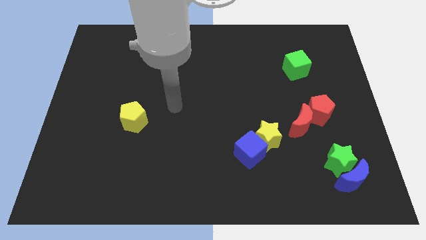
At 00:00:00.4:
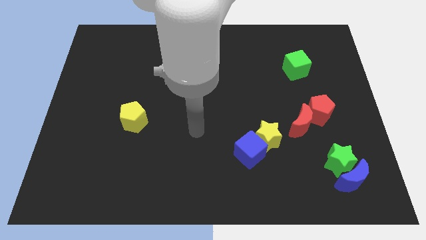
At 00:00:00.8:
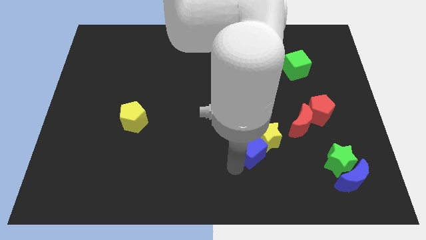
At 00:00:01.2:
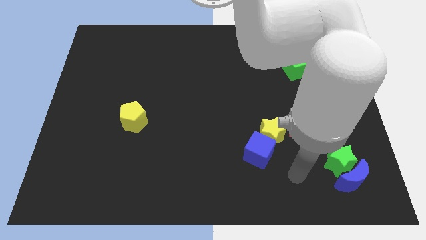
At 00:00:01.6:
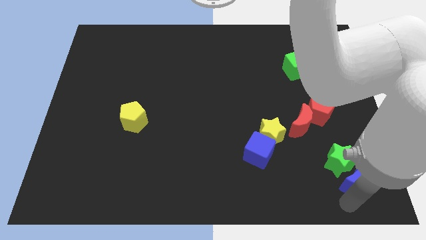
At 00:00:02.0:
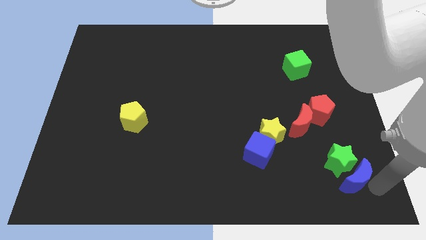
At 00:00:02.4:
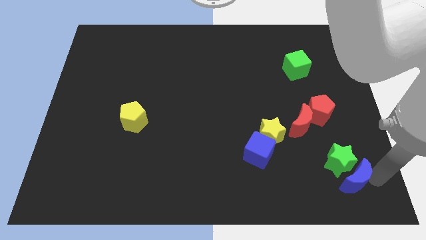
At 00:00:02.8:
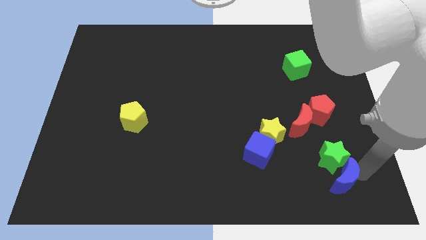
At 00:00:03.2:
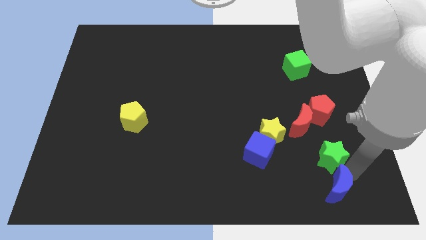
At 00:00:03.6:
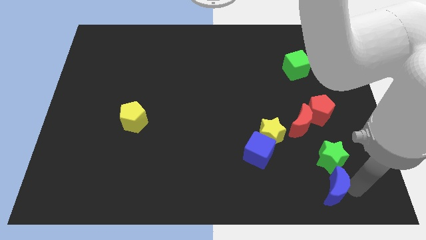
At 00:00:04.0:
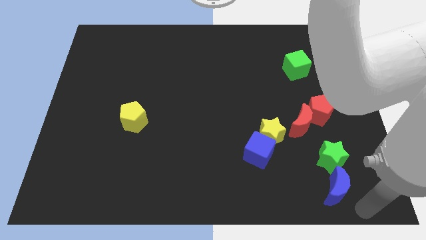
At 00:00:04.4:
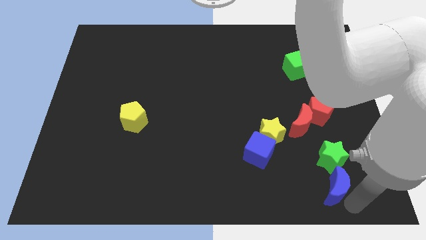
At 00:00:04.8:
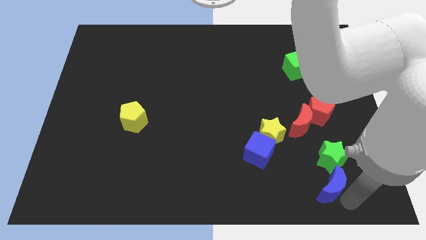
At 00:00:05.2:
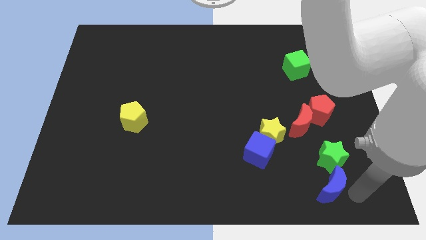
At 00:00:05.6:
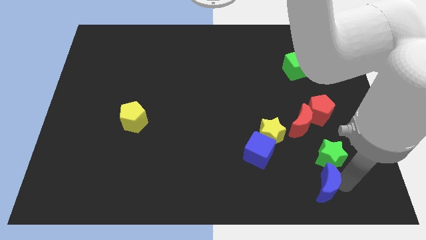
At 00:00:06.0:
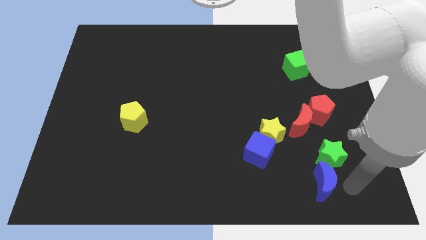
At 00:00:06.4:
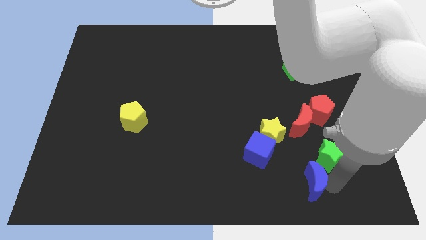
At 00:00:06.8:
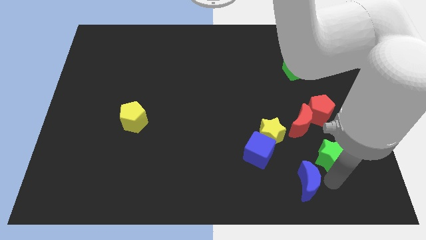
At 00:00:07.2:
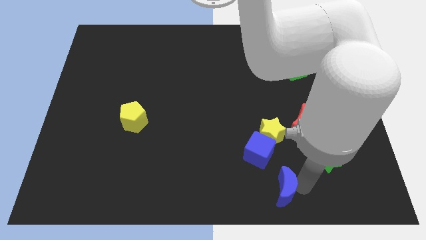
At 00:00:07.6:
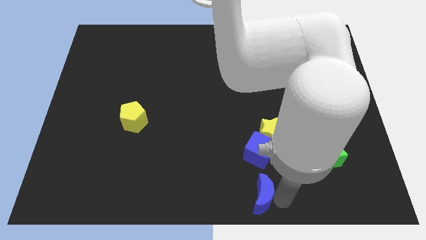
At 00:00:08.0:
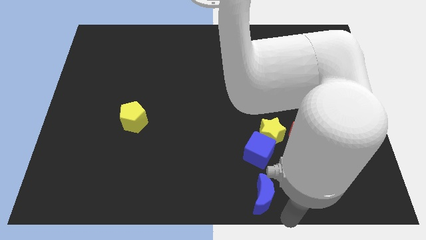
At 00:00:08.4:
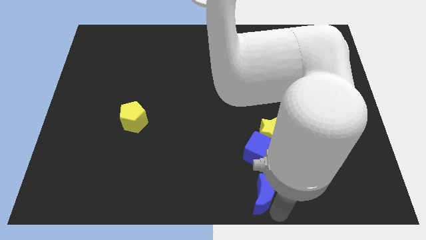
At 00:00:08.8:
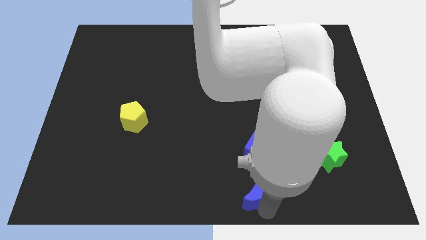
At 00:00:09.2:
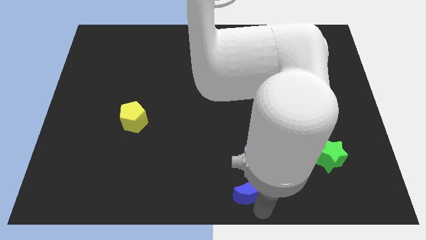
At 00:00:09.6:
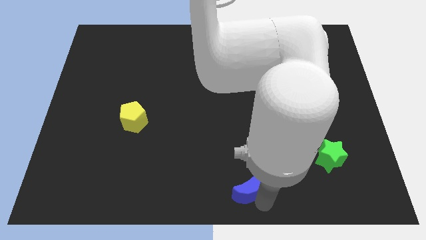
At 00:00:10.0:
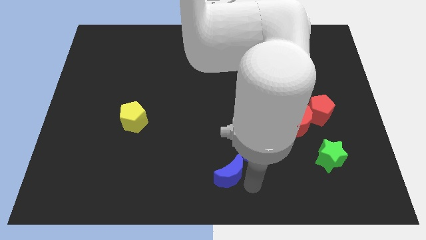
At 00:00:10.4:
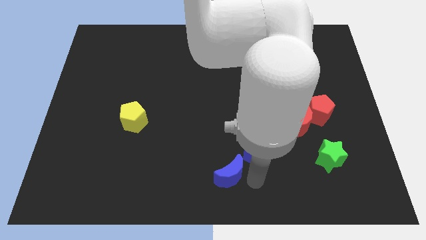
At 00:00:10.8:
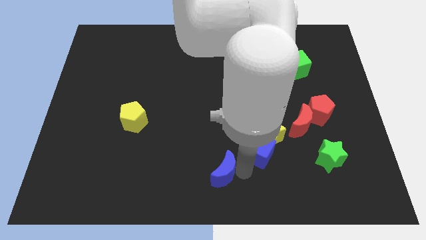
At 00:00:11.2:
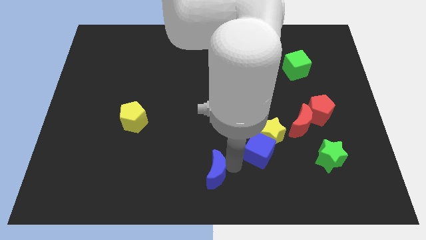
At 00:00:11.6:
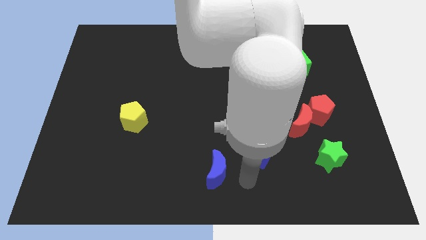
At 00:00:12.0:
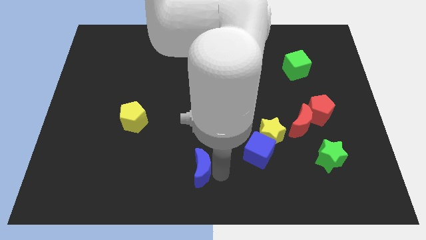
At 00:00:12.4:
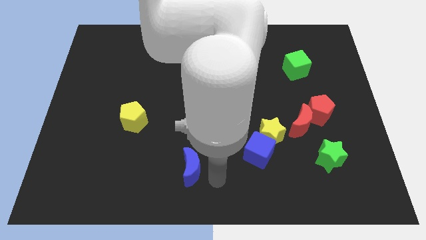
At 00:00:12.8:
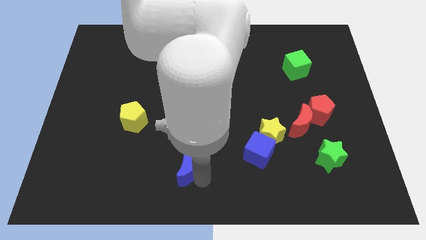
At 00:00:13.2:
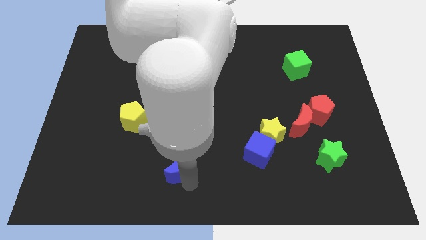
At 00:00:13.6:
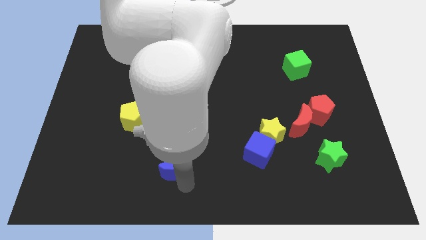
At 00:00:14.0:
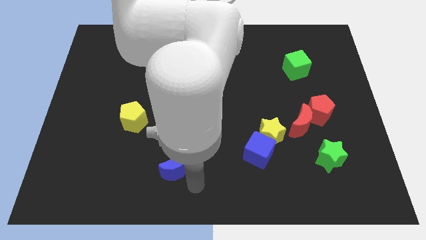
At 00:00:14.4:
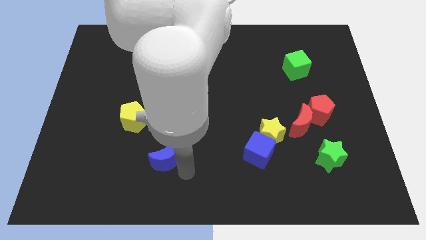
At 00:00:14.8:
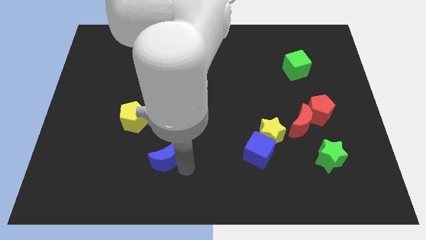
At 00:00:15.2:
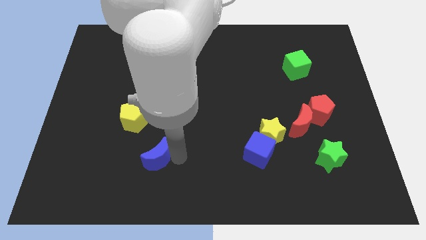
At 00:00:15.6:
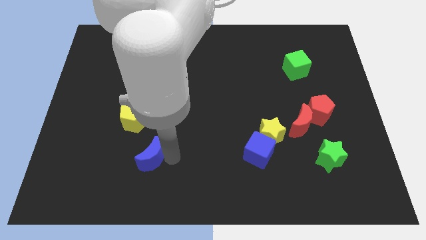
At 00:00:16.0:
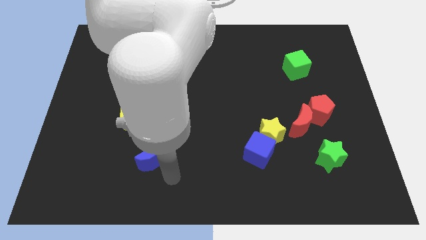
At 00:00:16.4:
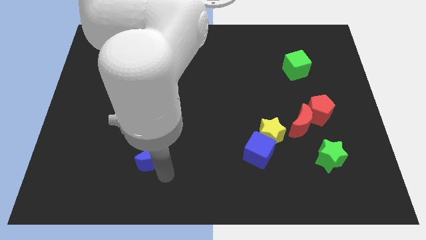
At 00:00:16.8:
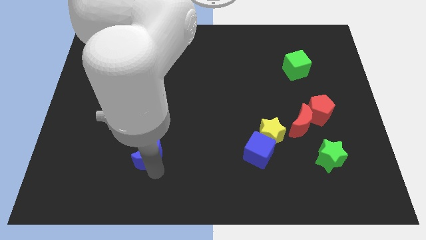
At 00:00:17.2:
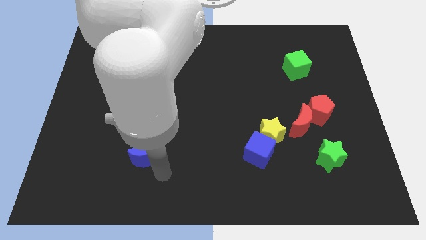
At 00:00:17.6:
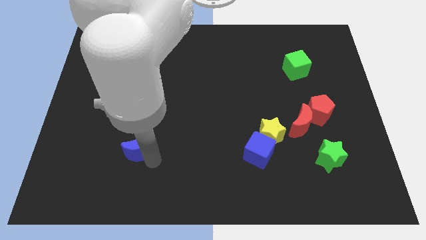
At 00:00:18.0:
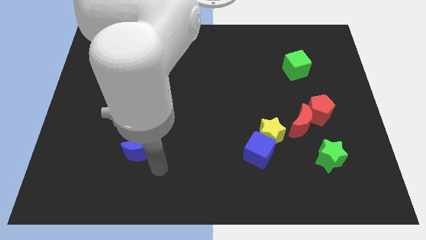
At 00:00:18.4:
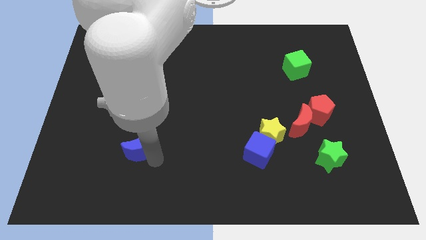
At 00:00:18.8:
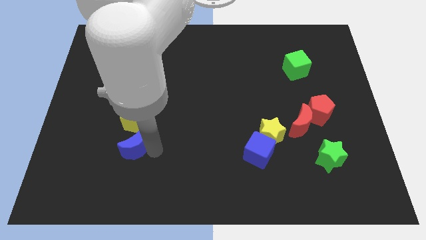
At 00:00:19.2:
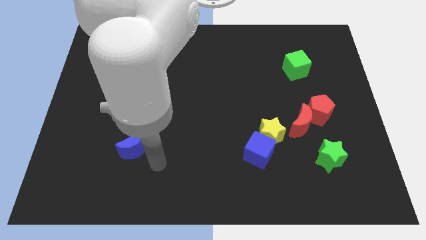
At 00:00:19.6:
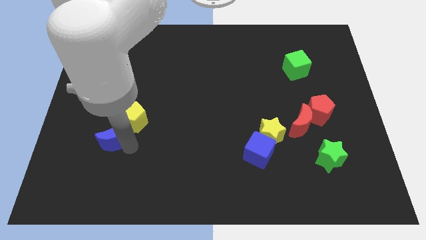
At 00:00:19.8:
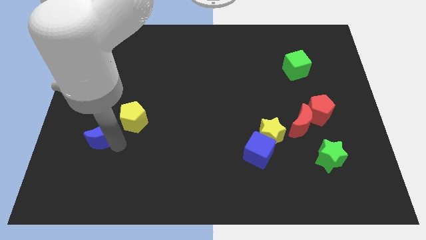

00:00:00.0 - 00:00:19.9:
slide the blue moon to the left side of the yellow pentagon

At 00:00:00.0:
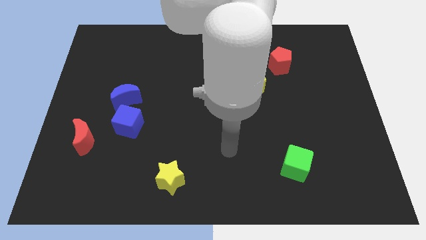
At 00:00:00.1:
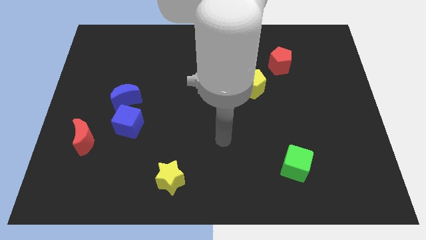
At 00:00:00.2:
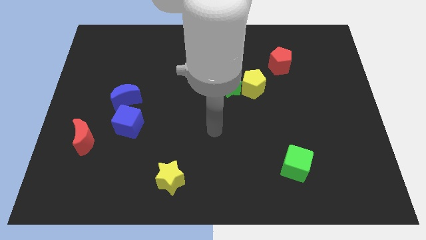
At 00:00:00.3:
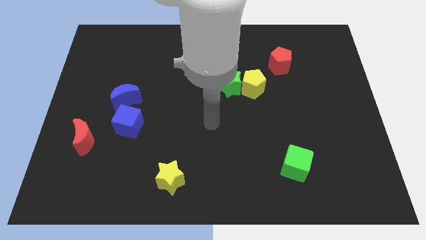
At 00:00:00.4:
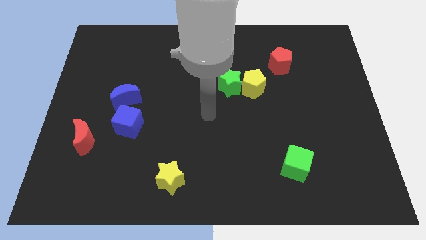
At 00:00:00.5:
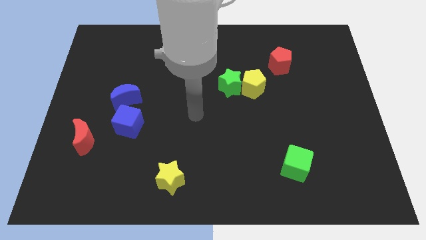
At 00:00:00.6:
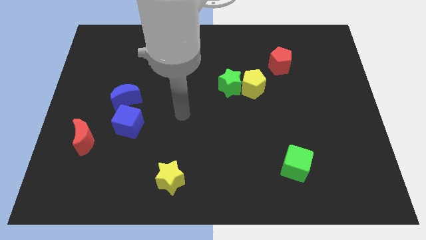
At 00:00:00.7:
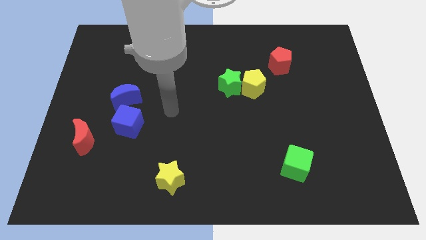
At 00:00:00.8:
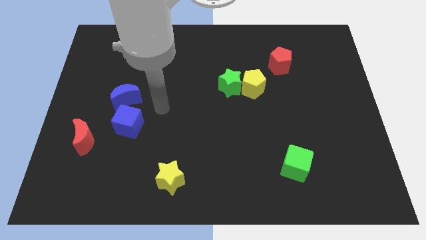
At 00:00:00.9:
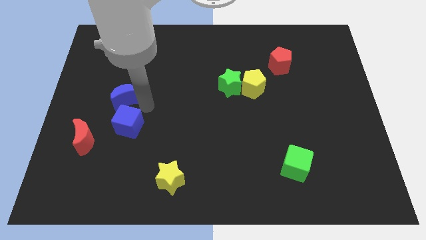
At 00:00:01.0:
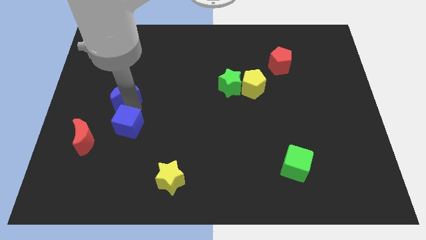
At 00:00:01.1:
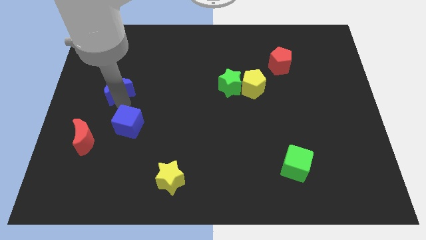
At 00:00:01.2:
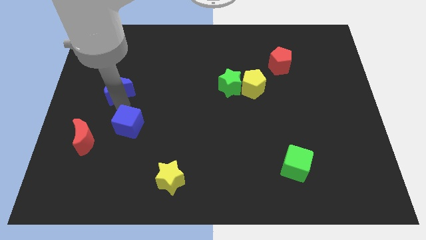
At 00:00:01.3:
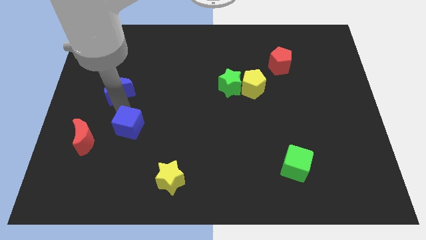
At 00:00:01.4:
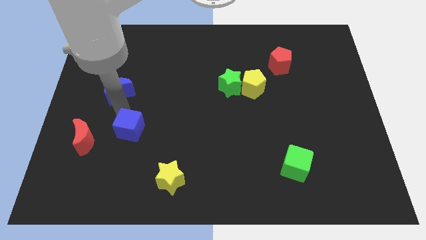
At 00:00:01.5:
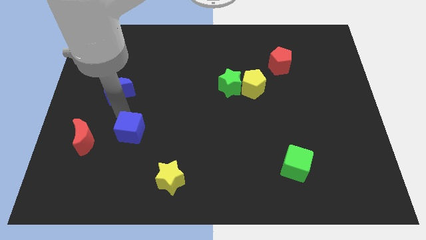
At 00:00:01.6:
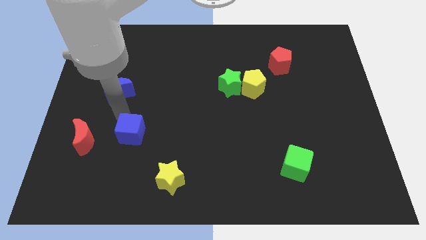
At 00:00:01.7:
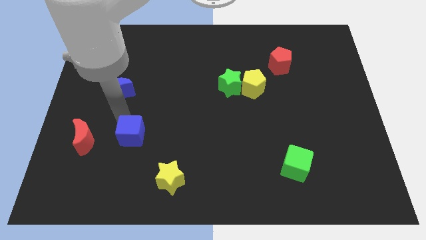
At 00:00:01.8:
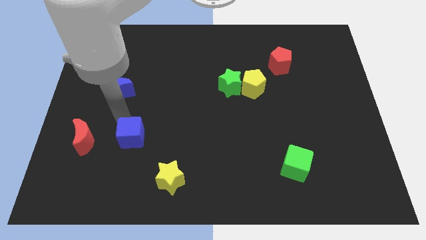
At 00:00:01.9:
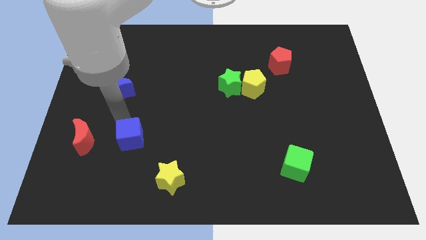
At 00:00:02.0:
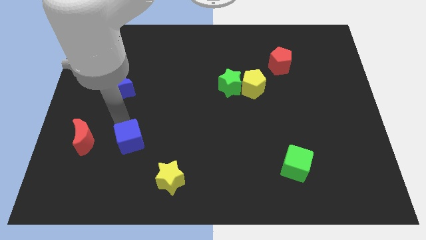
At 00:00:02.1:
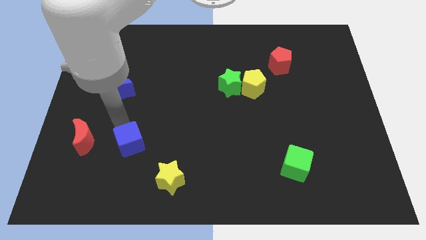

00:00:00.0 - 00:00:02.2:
move the blue cube to the top left side of the yellow star

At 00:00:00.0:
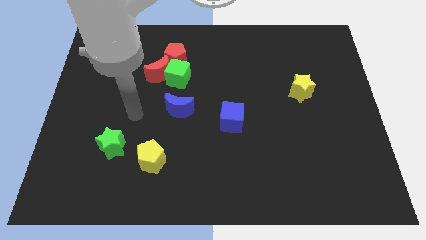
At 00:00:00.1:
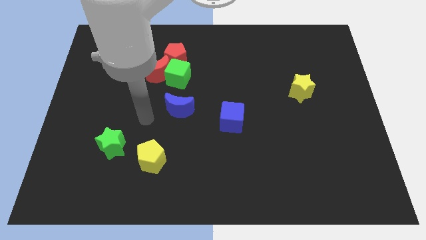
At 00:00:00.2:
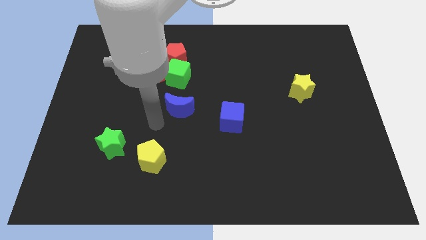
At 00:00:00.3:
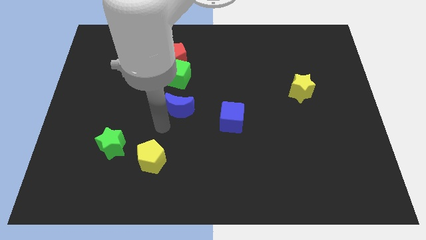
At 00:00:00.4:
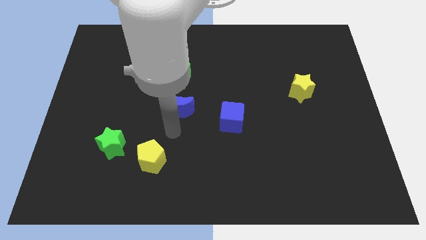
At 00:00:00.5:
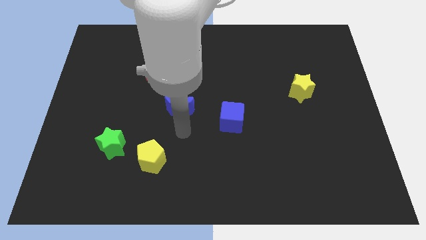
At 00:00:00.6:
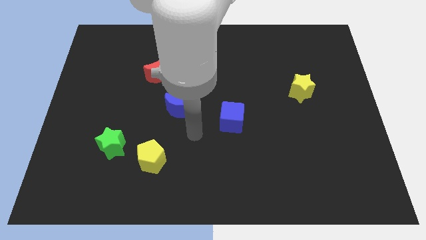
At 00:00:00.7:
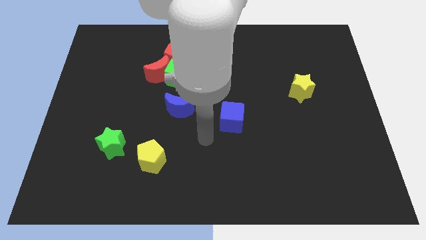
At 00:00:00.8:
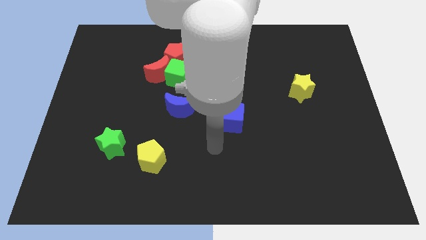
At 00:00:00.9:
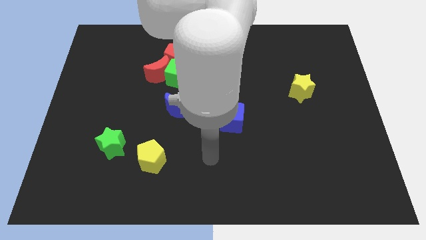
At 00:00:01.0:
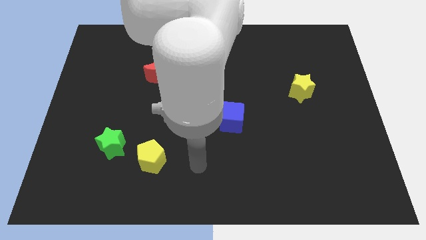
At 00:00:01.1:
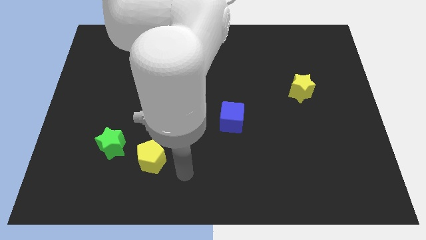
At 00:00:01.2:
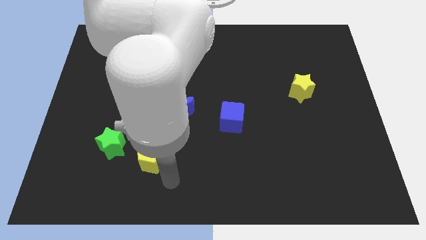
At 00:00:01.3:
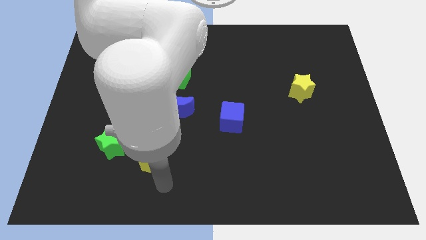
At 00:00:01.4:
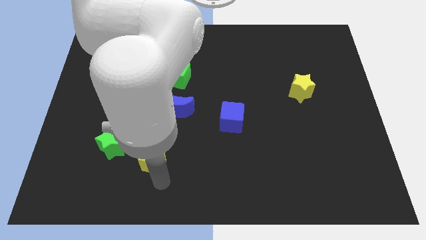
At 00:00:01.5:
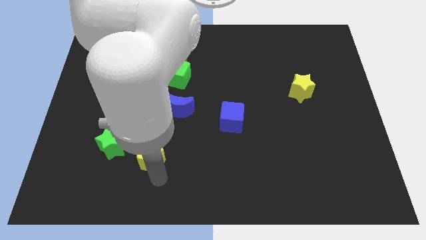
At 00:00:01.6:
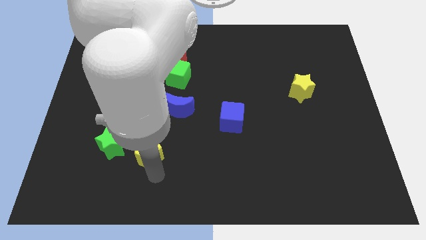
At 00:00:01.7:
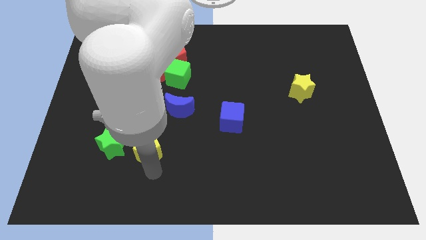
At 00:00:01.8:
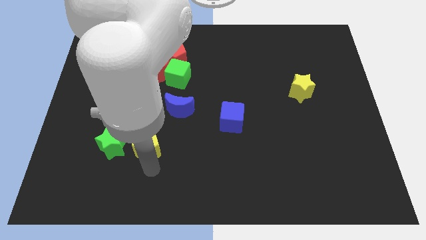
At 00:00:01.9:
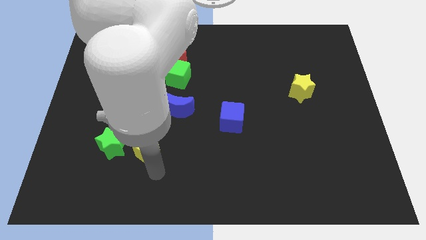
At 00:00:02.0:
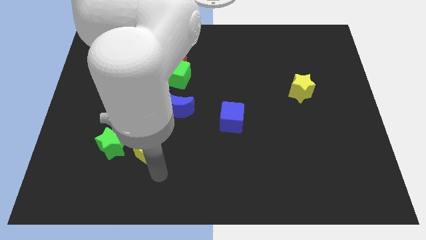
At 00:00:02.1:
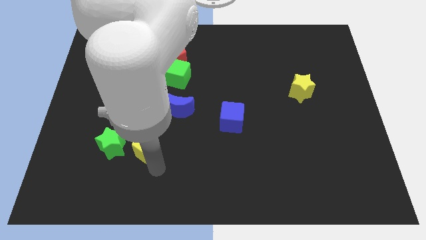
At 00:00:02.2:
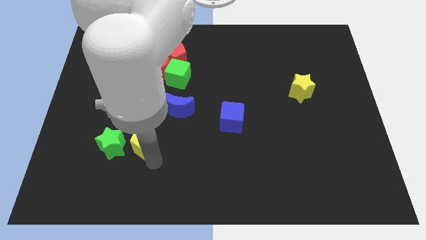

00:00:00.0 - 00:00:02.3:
push the yellow pentagon to the top right of the green star
